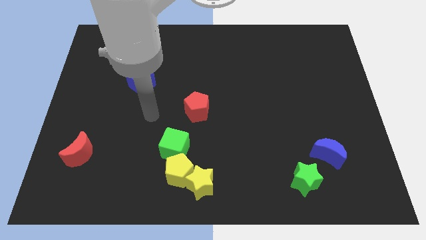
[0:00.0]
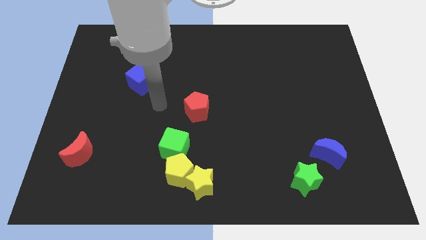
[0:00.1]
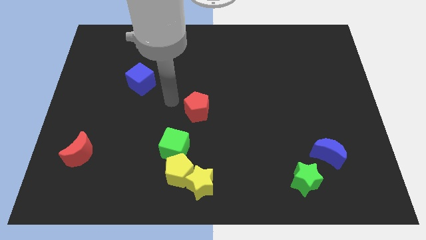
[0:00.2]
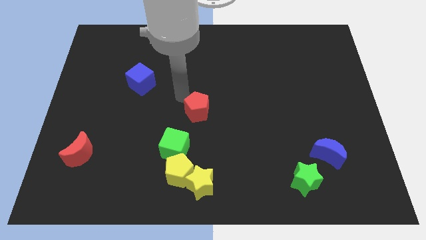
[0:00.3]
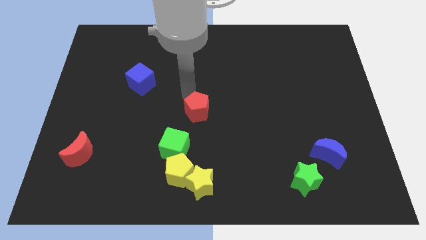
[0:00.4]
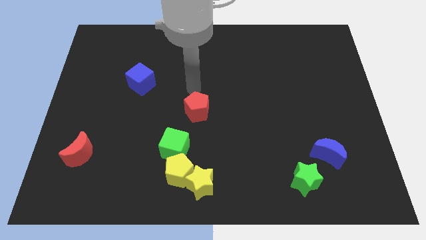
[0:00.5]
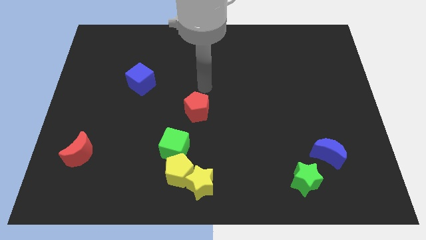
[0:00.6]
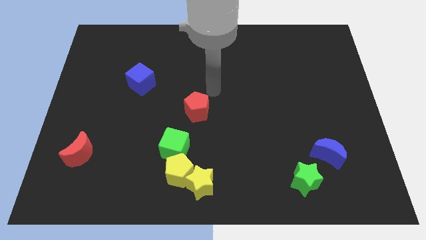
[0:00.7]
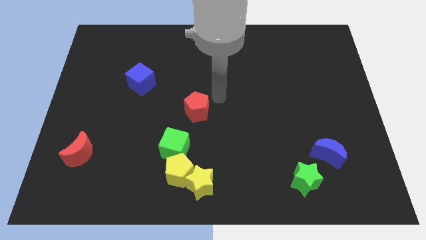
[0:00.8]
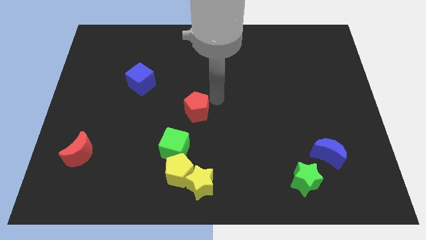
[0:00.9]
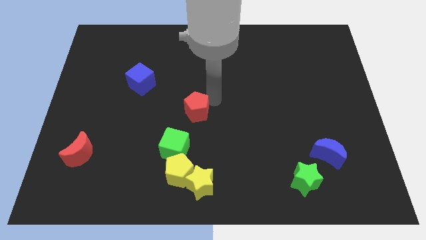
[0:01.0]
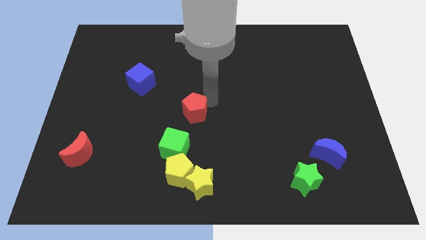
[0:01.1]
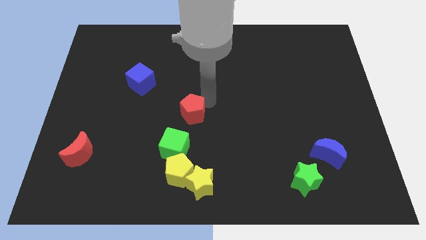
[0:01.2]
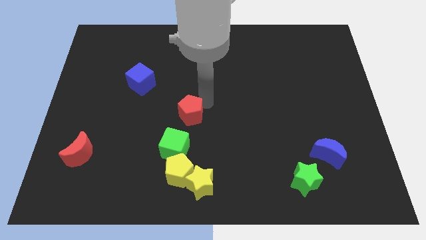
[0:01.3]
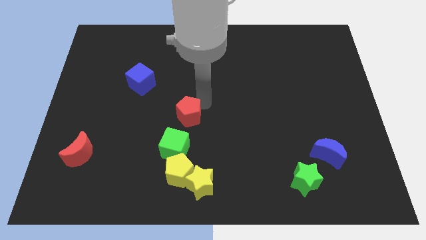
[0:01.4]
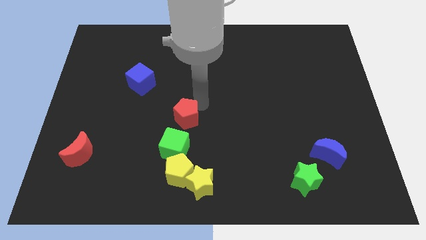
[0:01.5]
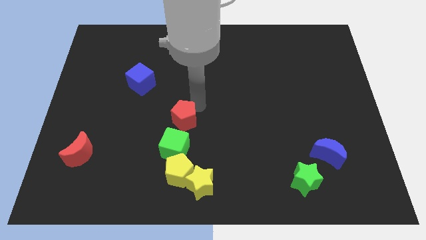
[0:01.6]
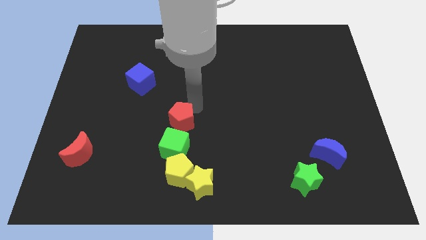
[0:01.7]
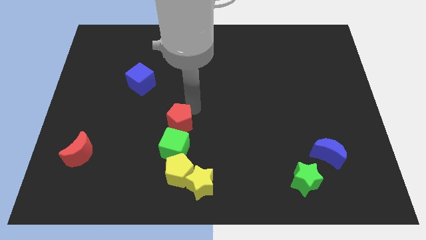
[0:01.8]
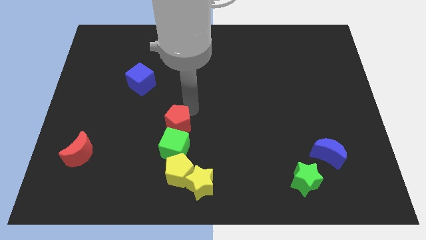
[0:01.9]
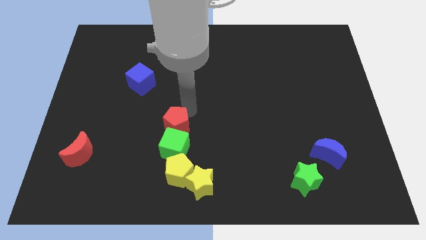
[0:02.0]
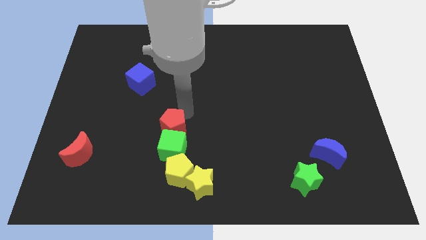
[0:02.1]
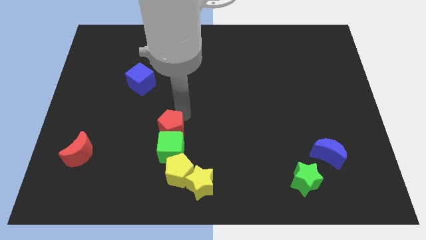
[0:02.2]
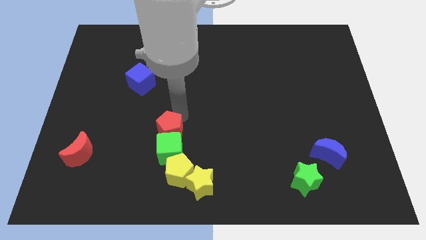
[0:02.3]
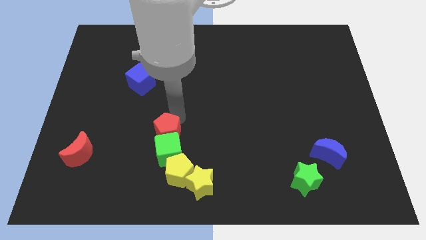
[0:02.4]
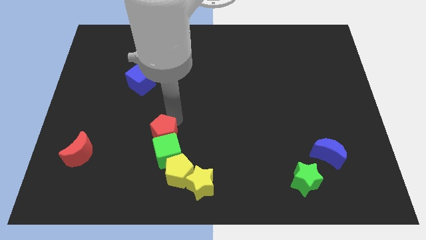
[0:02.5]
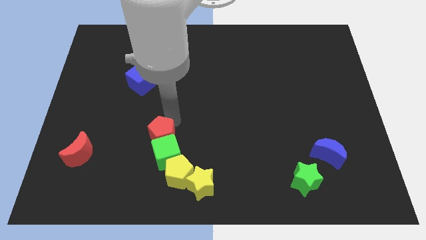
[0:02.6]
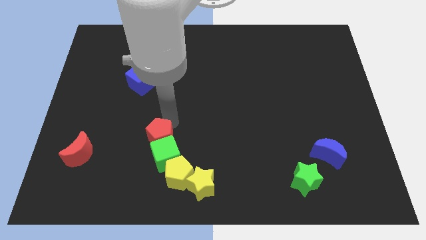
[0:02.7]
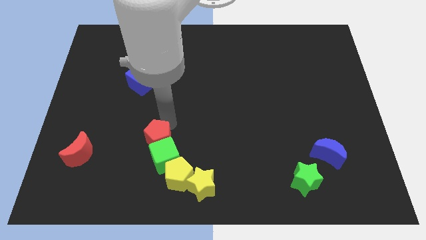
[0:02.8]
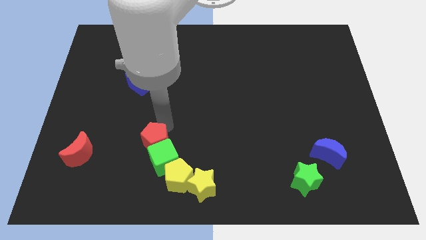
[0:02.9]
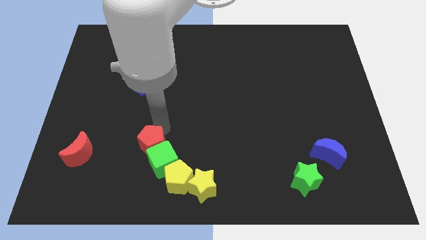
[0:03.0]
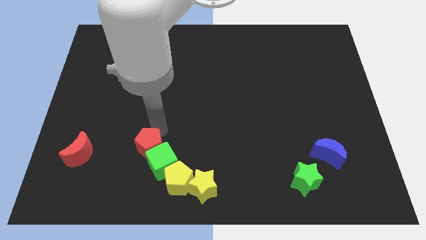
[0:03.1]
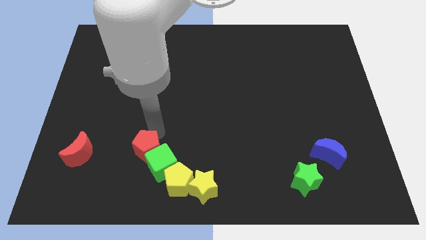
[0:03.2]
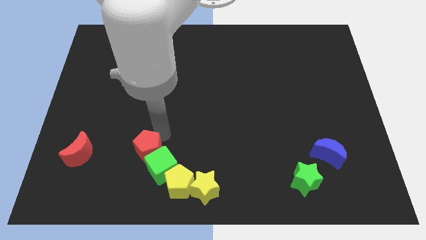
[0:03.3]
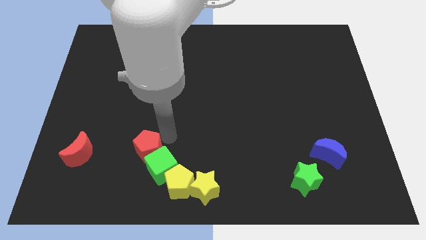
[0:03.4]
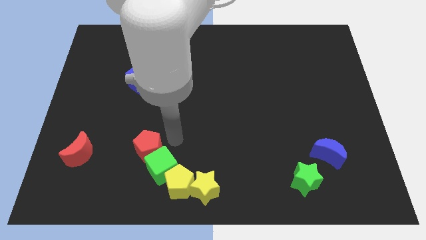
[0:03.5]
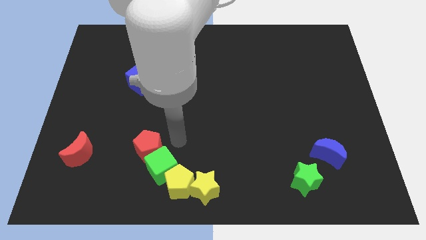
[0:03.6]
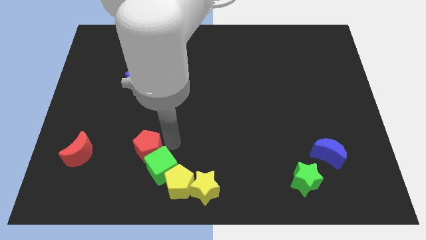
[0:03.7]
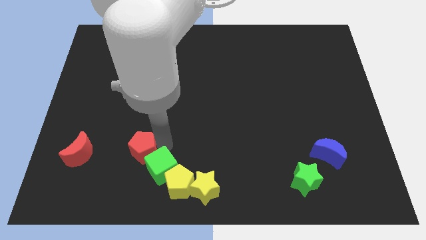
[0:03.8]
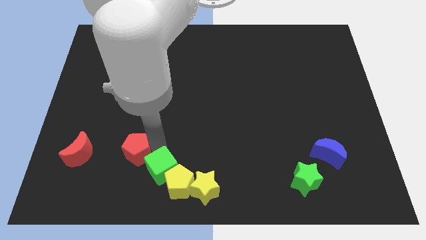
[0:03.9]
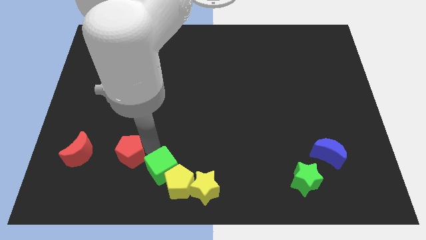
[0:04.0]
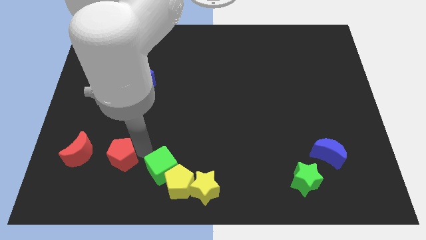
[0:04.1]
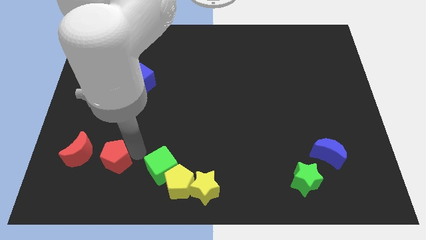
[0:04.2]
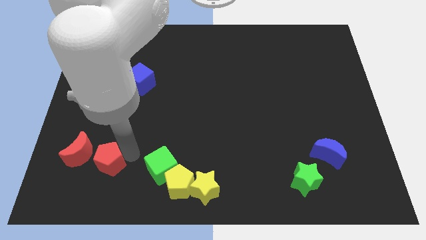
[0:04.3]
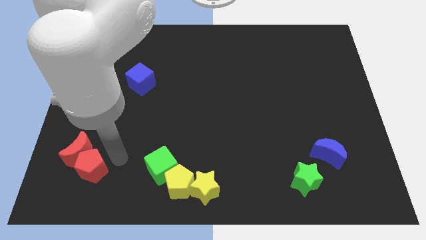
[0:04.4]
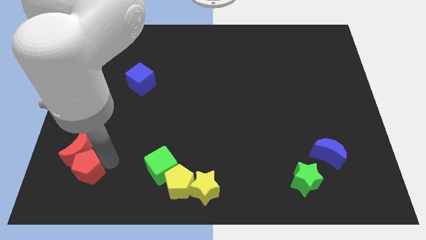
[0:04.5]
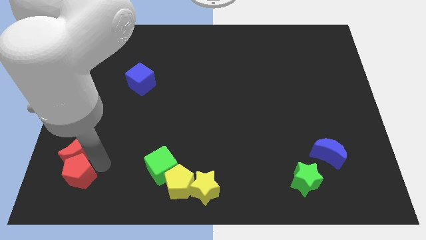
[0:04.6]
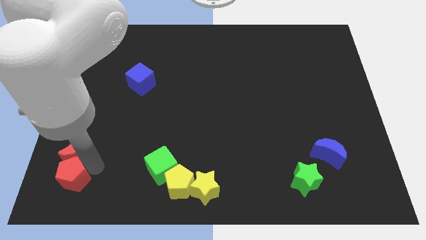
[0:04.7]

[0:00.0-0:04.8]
push the red pentagon to the bottom left corner

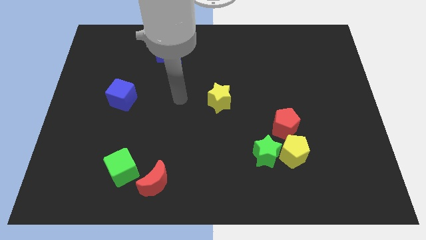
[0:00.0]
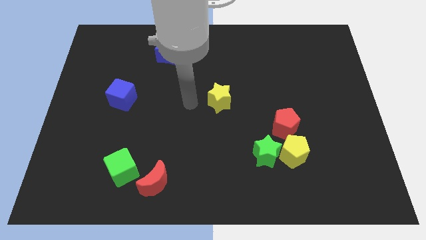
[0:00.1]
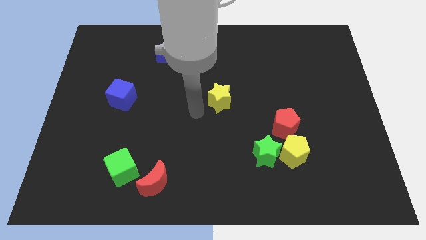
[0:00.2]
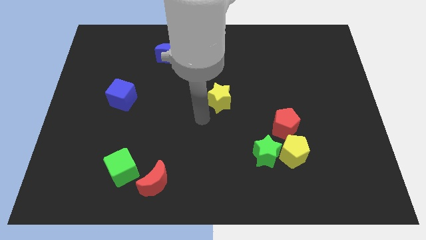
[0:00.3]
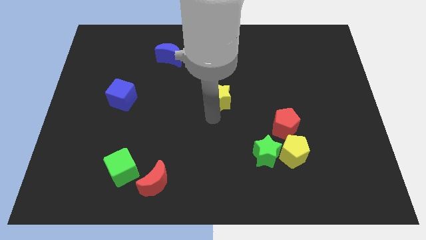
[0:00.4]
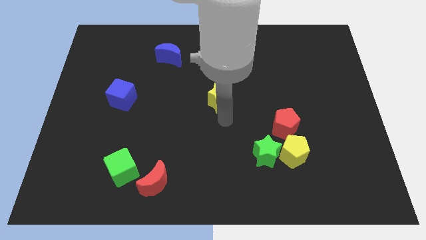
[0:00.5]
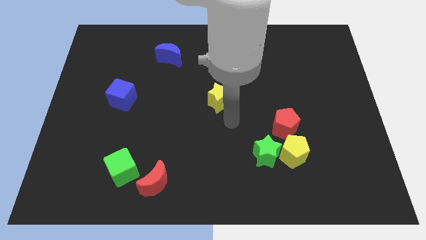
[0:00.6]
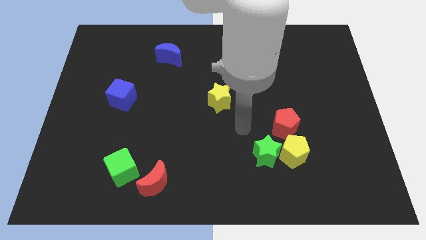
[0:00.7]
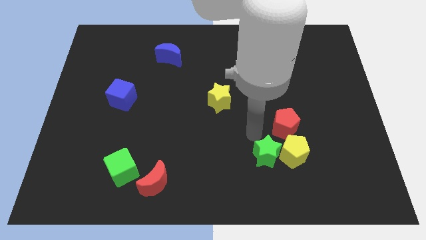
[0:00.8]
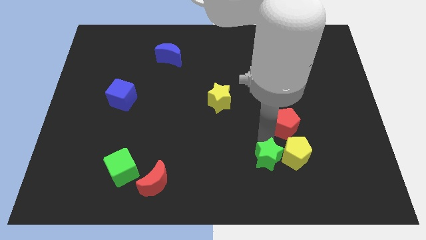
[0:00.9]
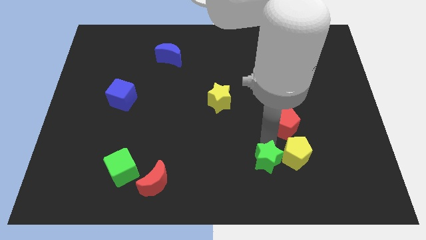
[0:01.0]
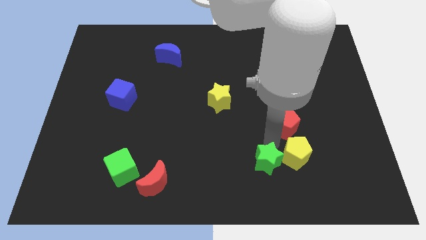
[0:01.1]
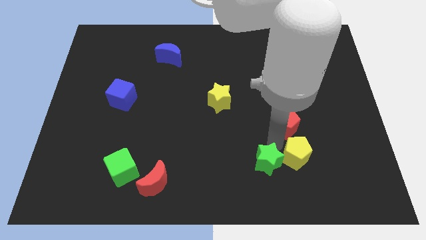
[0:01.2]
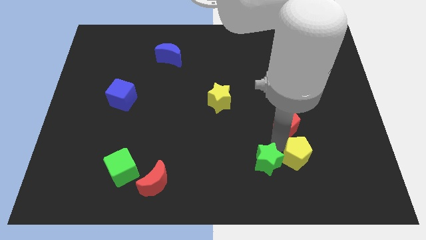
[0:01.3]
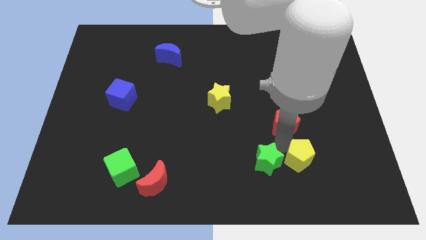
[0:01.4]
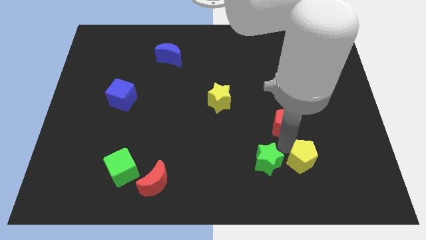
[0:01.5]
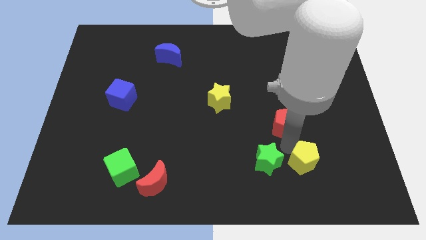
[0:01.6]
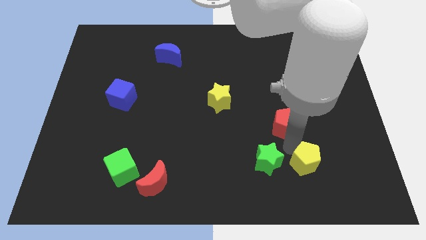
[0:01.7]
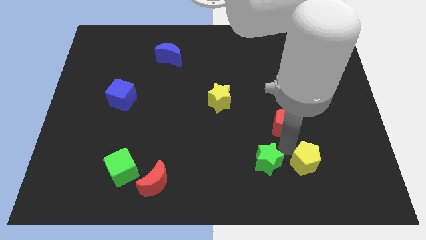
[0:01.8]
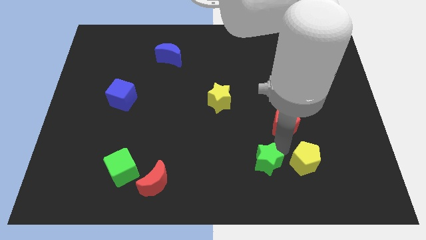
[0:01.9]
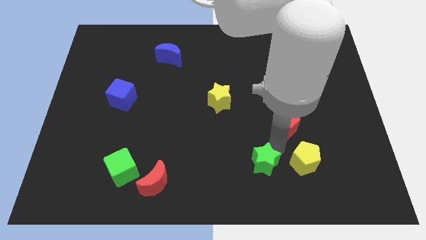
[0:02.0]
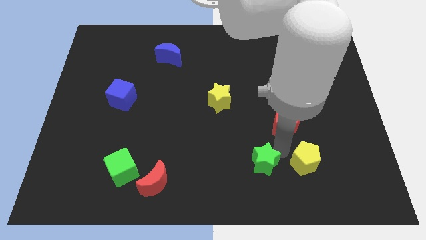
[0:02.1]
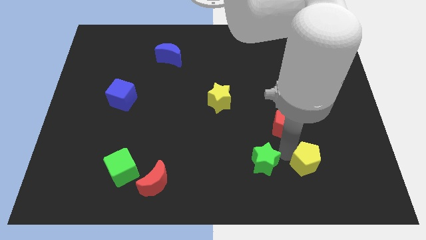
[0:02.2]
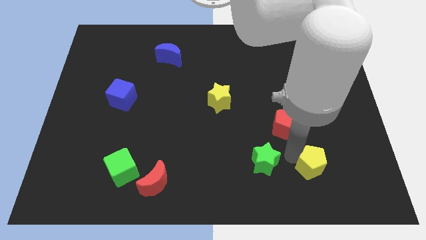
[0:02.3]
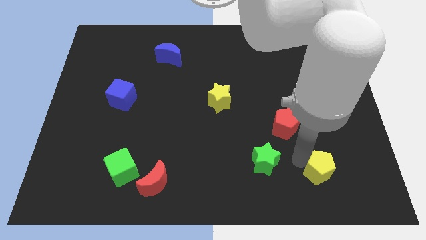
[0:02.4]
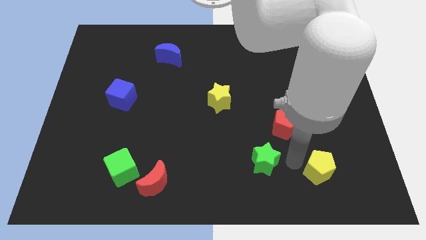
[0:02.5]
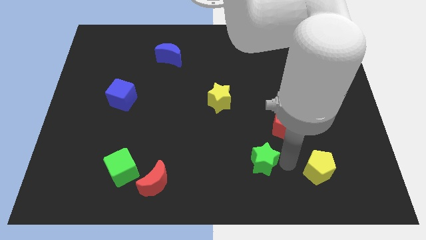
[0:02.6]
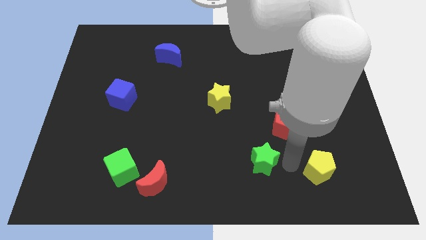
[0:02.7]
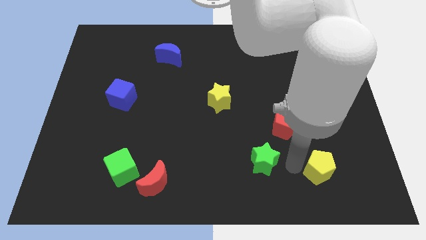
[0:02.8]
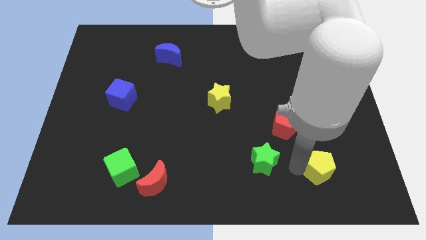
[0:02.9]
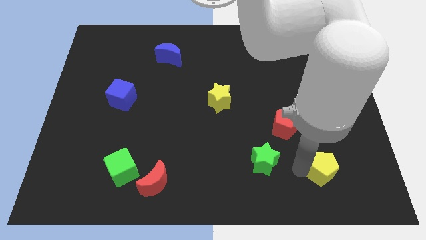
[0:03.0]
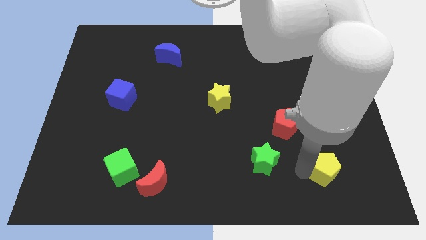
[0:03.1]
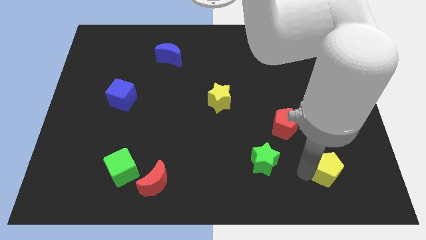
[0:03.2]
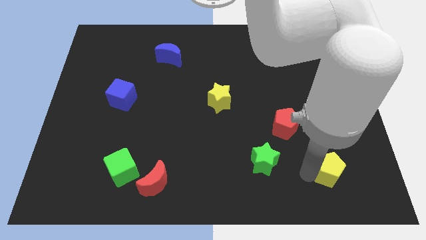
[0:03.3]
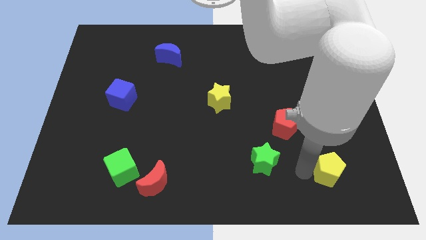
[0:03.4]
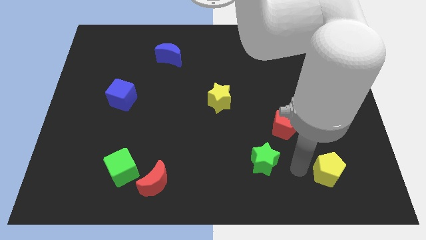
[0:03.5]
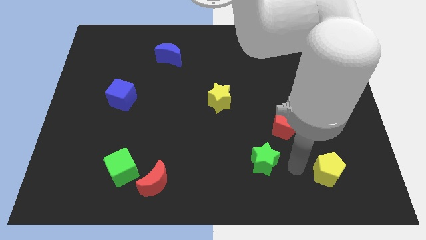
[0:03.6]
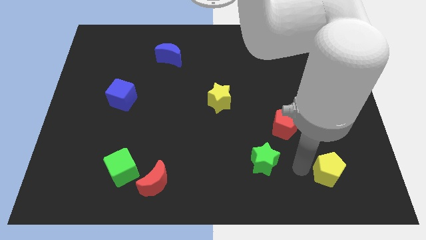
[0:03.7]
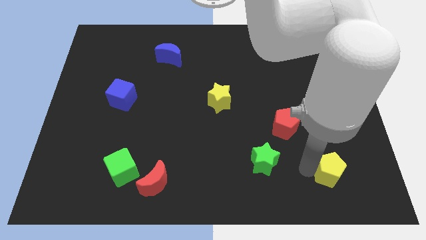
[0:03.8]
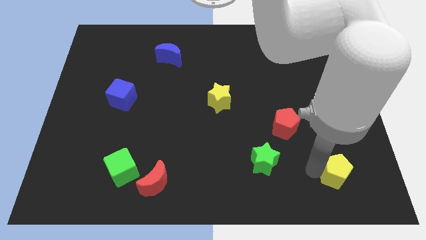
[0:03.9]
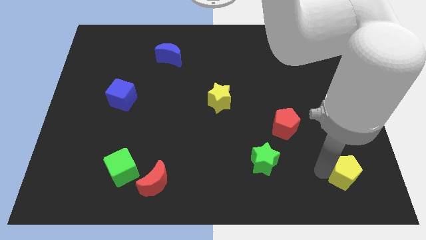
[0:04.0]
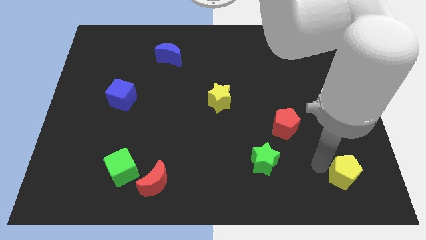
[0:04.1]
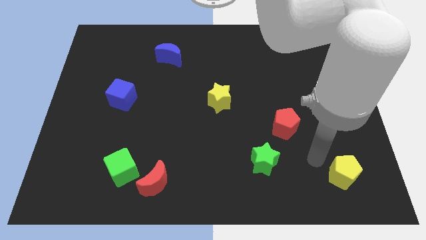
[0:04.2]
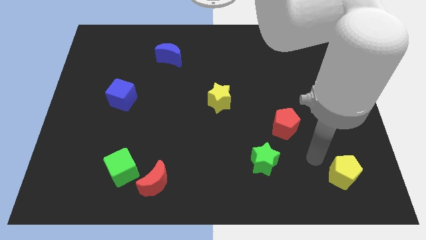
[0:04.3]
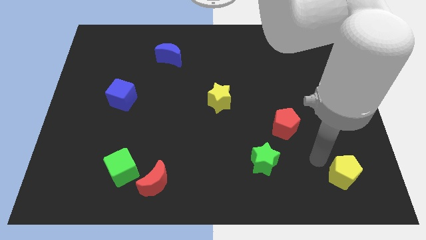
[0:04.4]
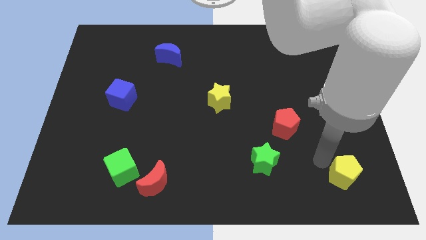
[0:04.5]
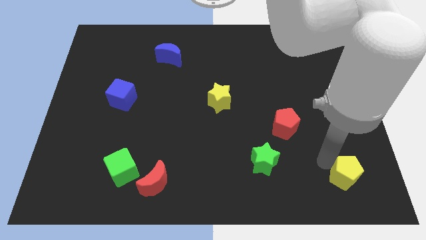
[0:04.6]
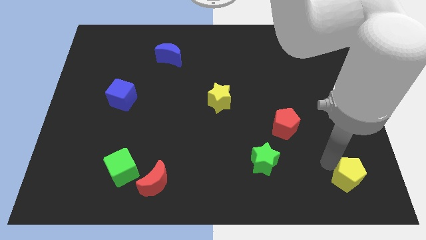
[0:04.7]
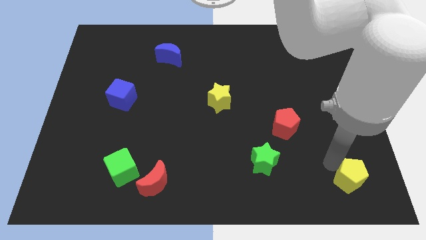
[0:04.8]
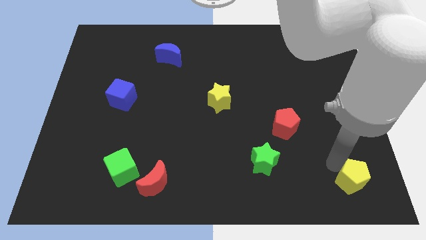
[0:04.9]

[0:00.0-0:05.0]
push the yellow pentagon to the bottom right
